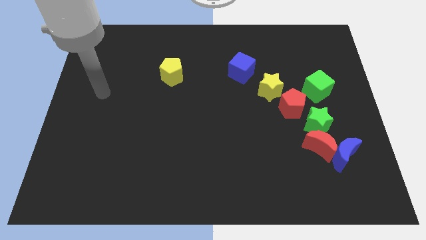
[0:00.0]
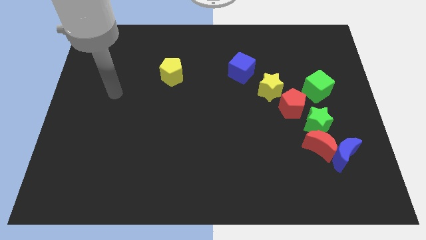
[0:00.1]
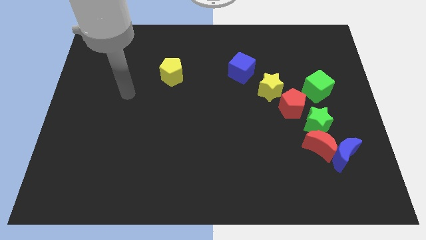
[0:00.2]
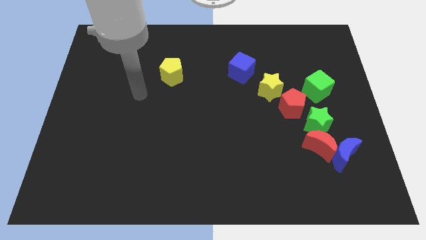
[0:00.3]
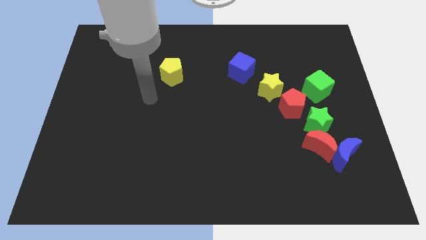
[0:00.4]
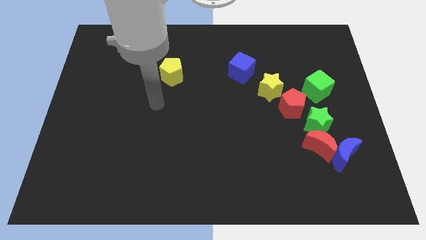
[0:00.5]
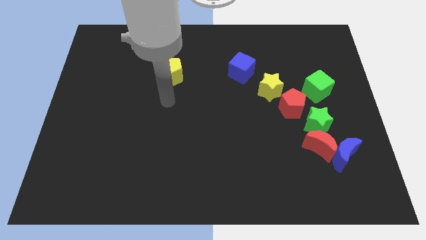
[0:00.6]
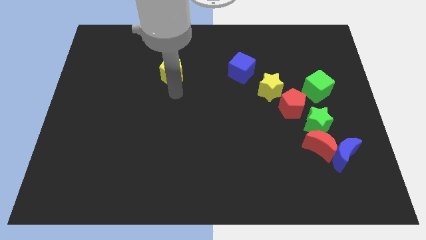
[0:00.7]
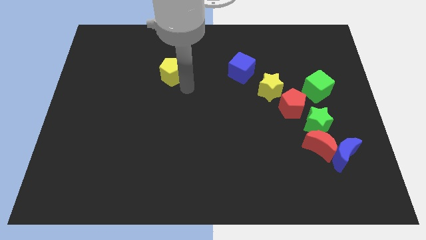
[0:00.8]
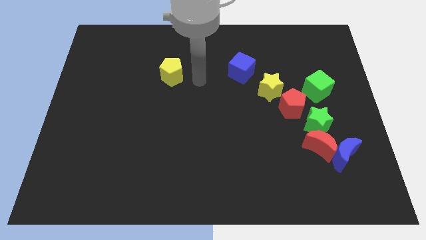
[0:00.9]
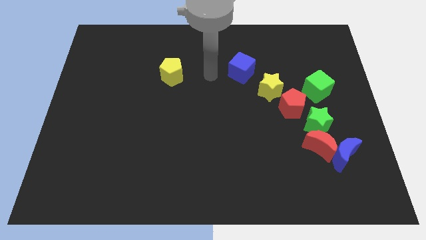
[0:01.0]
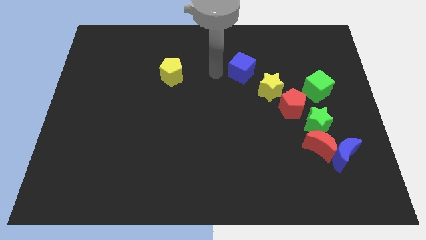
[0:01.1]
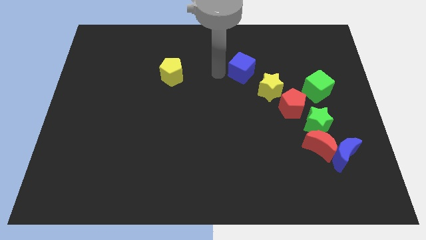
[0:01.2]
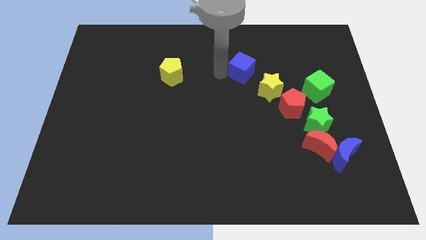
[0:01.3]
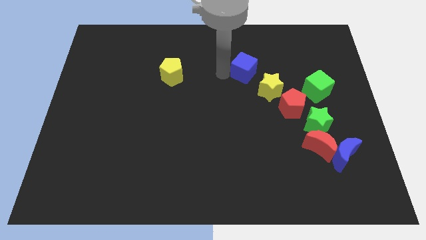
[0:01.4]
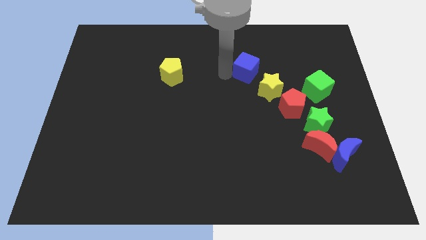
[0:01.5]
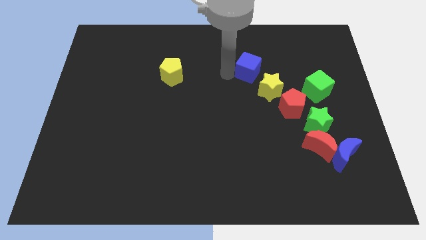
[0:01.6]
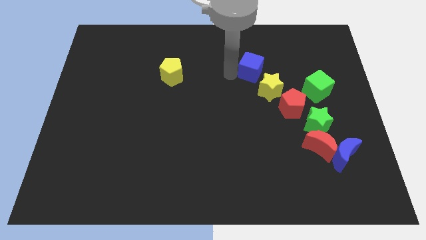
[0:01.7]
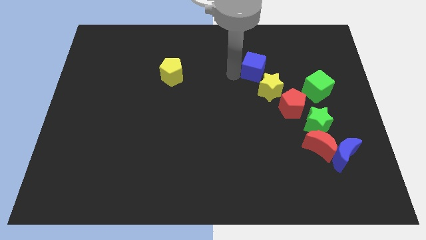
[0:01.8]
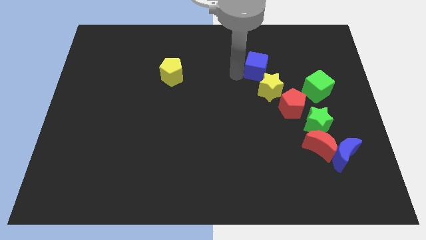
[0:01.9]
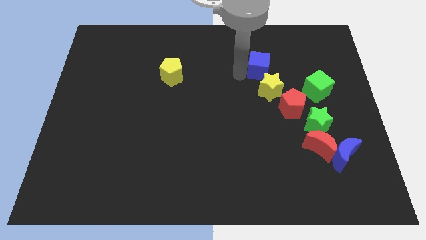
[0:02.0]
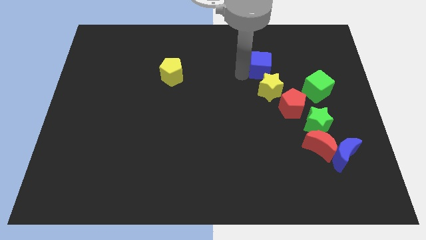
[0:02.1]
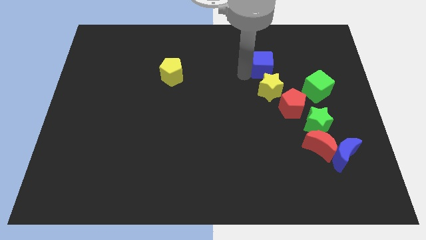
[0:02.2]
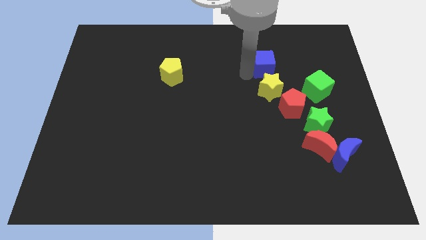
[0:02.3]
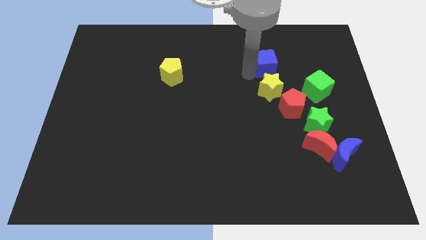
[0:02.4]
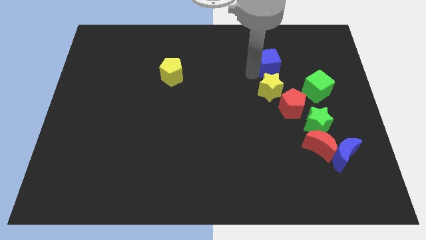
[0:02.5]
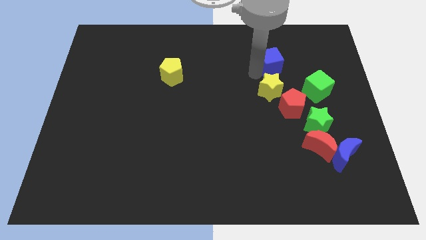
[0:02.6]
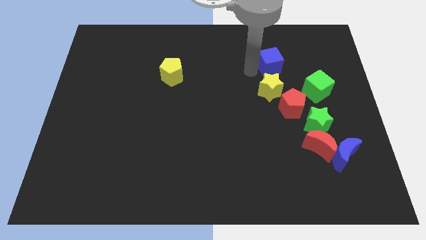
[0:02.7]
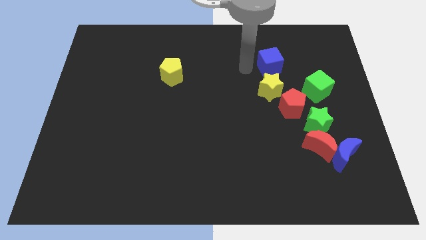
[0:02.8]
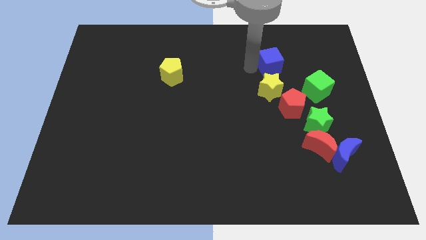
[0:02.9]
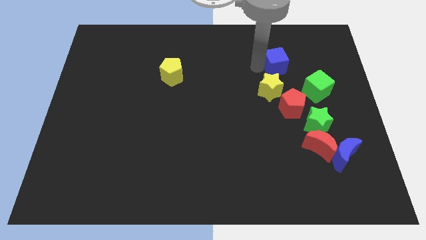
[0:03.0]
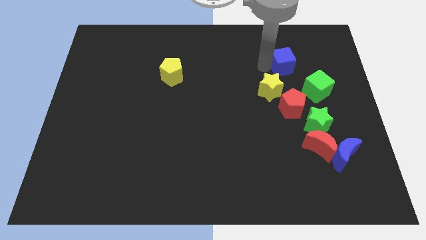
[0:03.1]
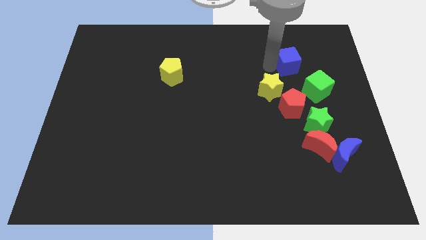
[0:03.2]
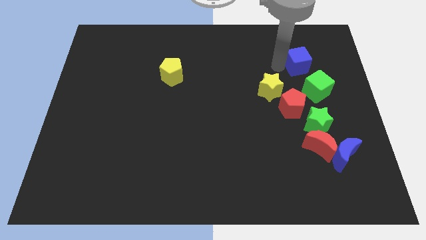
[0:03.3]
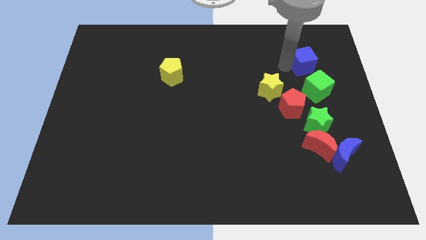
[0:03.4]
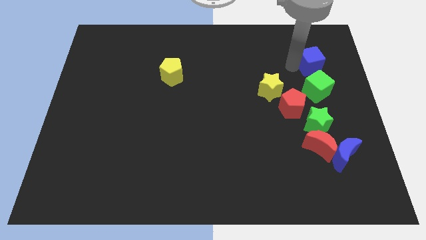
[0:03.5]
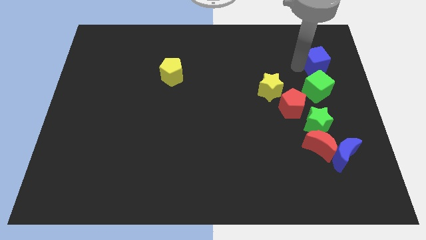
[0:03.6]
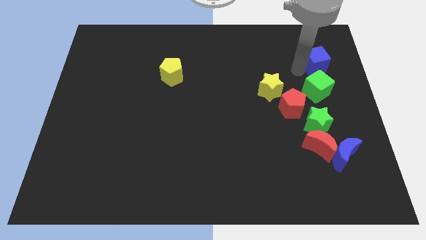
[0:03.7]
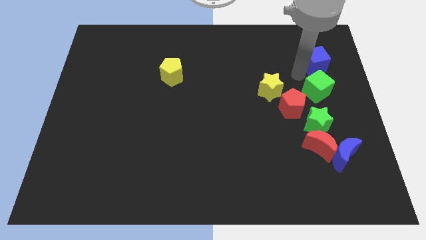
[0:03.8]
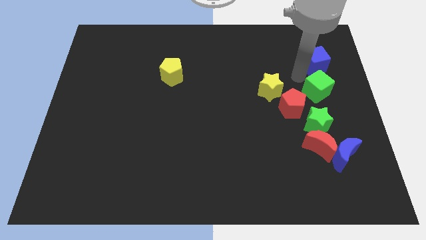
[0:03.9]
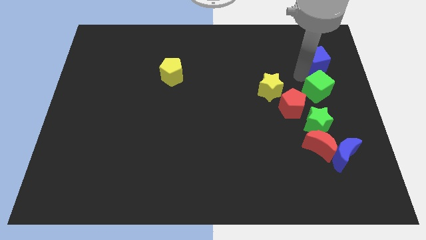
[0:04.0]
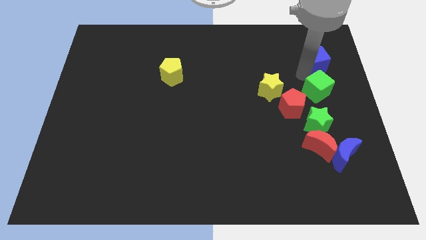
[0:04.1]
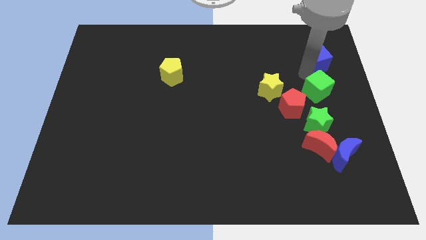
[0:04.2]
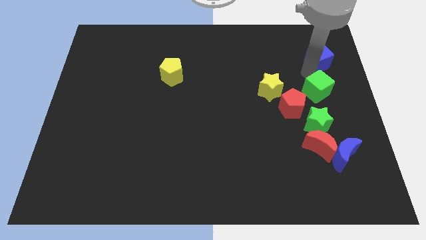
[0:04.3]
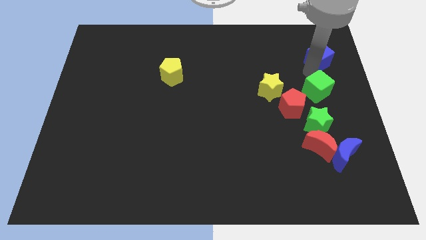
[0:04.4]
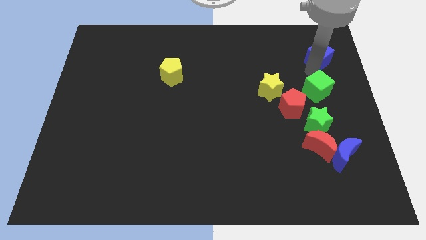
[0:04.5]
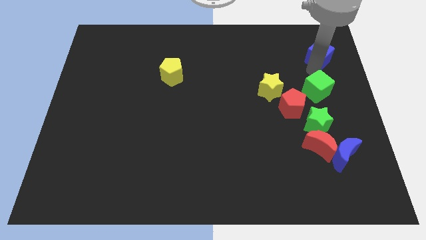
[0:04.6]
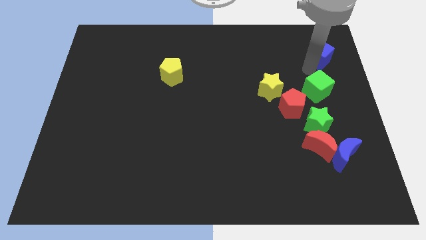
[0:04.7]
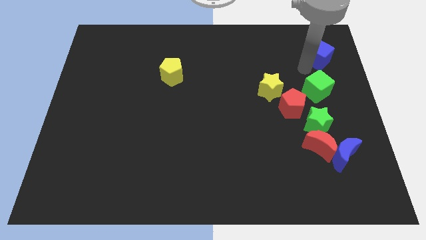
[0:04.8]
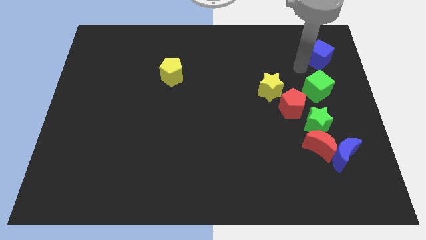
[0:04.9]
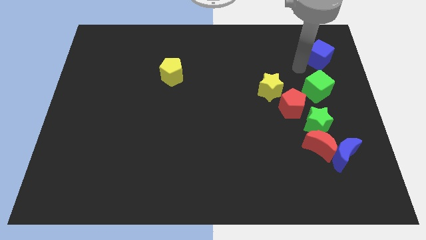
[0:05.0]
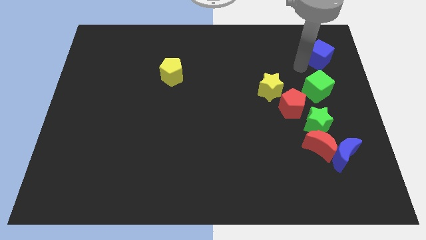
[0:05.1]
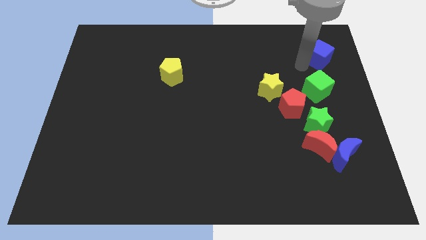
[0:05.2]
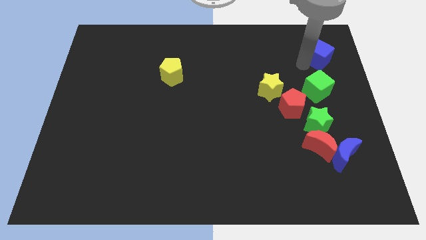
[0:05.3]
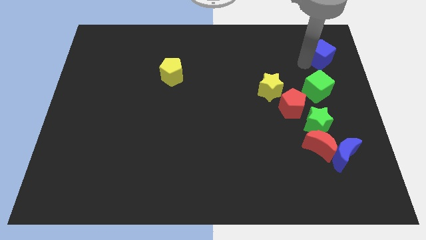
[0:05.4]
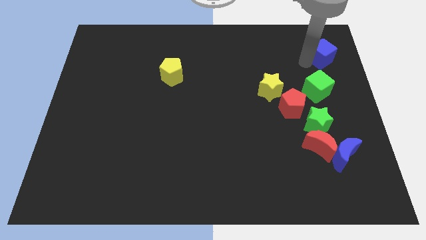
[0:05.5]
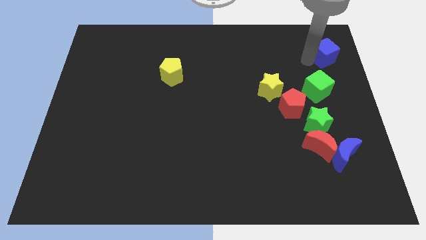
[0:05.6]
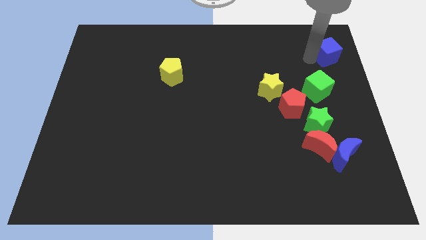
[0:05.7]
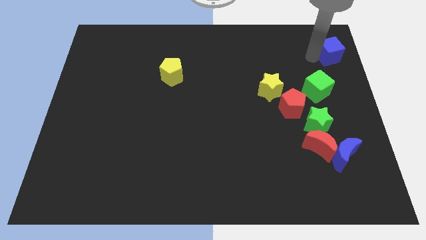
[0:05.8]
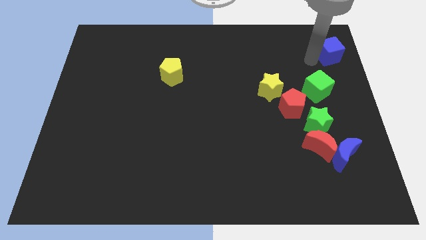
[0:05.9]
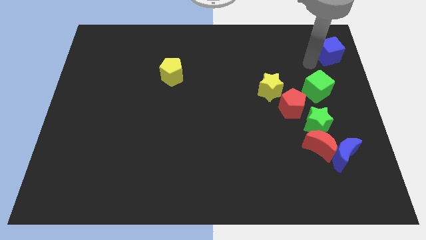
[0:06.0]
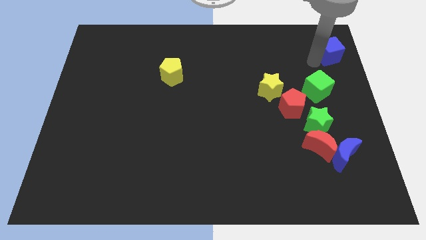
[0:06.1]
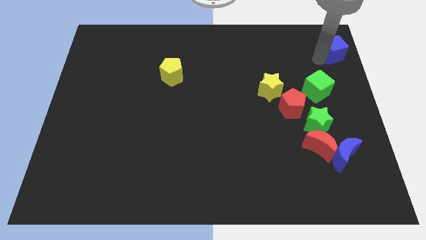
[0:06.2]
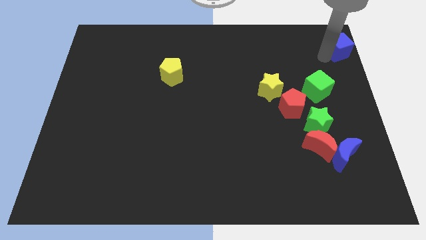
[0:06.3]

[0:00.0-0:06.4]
slide the blue cube to the top right corner

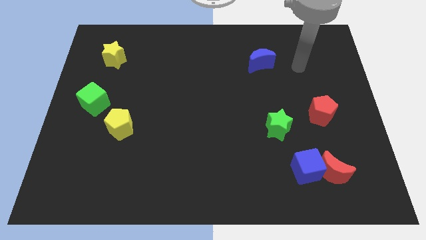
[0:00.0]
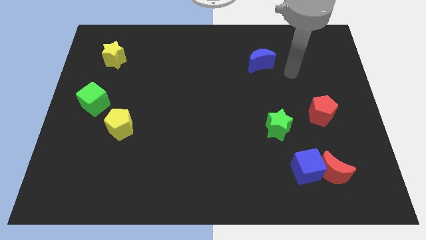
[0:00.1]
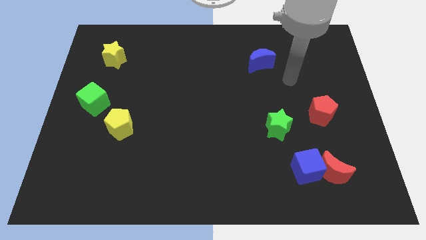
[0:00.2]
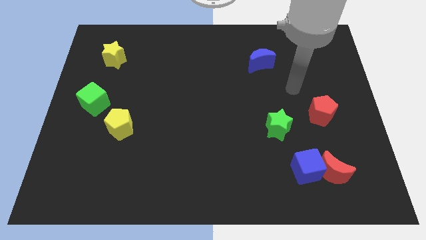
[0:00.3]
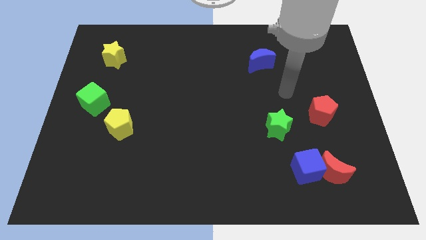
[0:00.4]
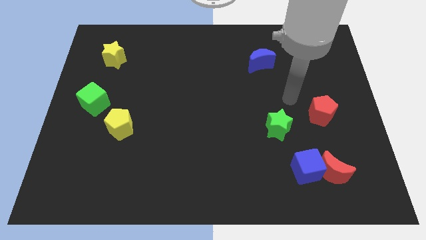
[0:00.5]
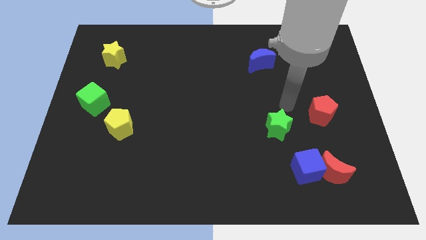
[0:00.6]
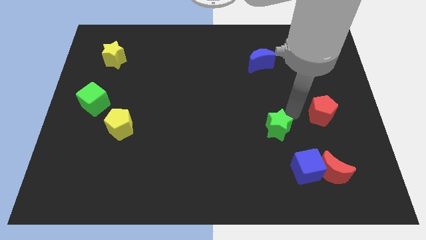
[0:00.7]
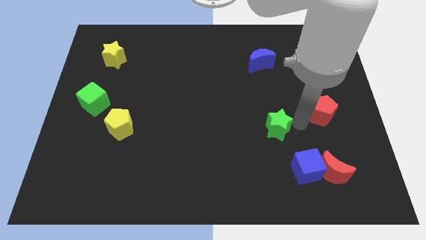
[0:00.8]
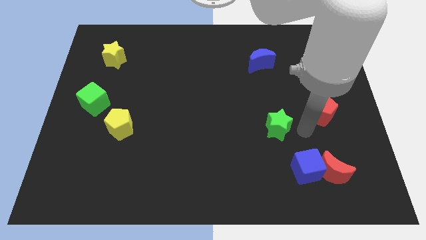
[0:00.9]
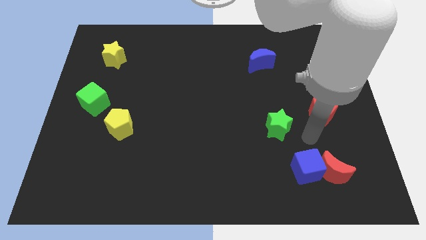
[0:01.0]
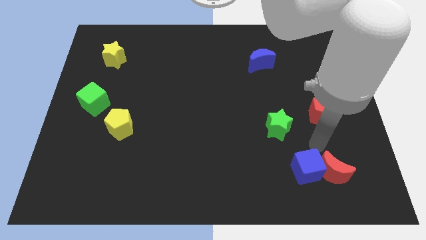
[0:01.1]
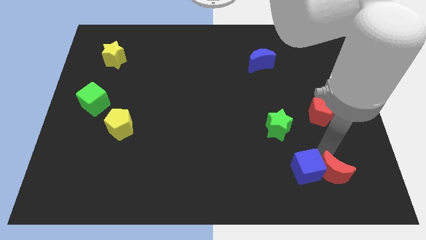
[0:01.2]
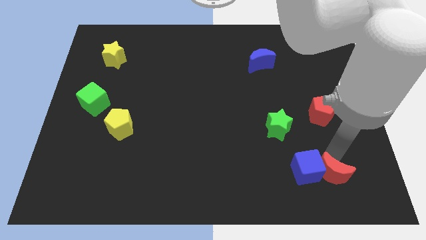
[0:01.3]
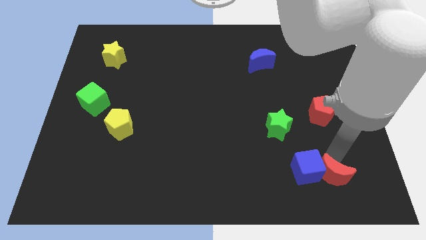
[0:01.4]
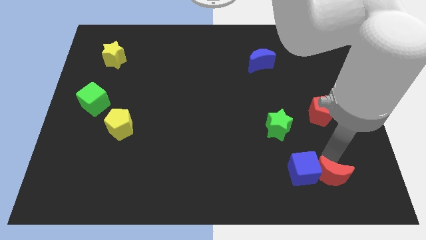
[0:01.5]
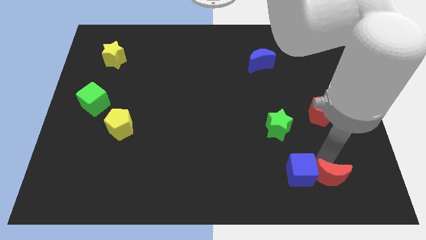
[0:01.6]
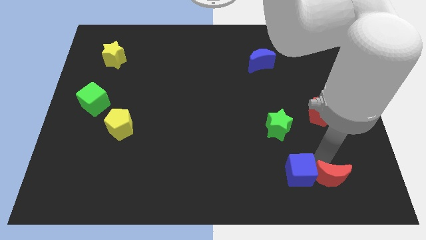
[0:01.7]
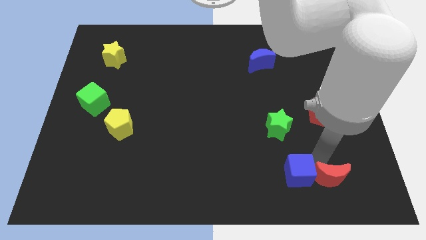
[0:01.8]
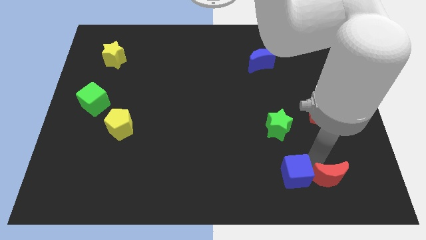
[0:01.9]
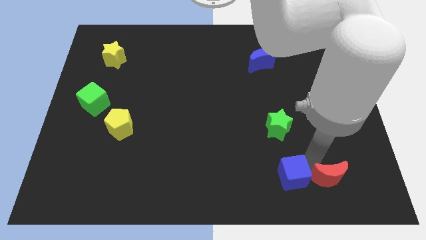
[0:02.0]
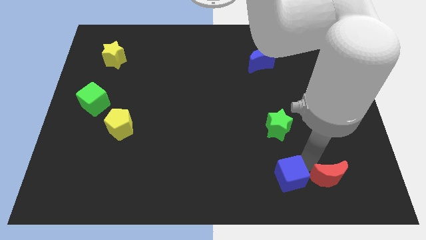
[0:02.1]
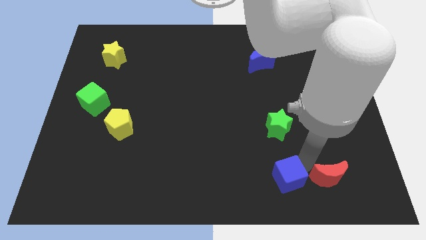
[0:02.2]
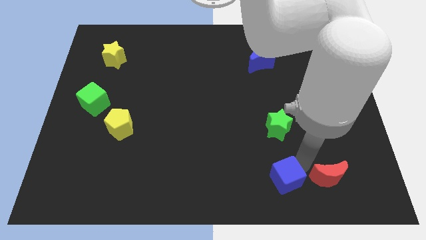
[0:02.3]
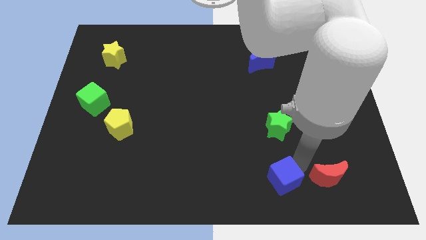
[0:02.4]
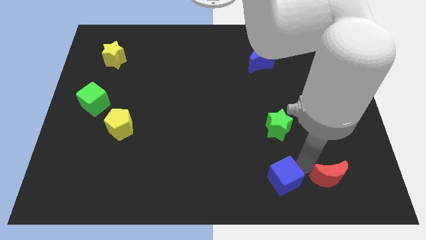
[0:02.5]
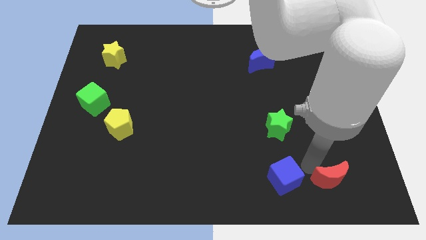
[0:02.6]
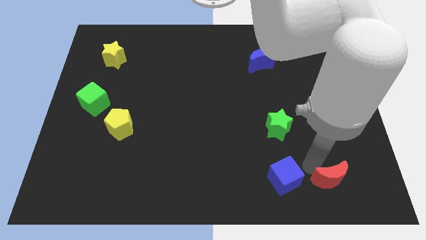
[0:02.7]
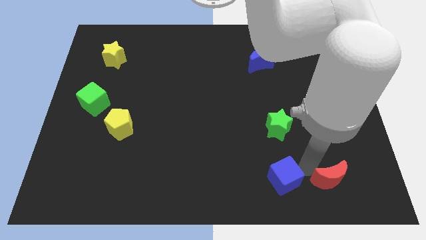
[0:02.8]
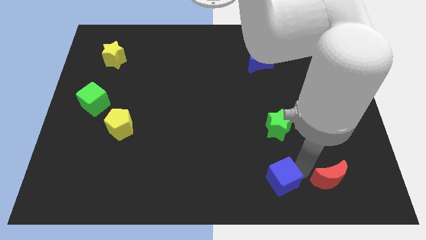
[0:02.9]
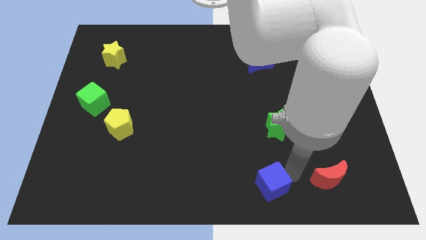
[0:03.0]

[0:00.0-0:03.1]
put the blue cube to the bottom side
